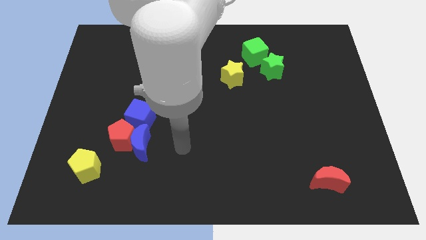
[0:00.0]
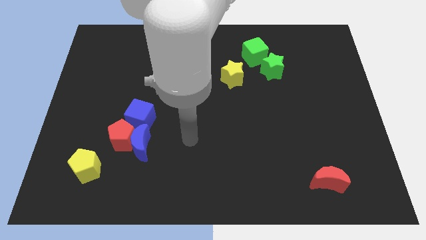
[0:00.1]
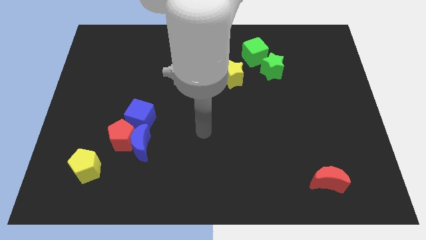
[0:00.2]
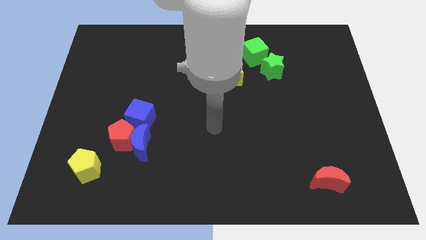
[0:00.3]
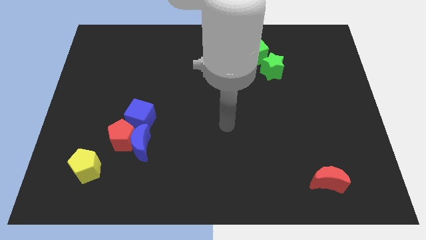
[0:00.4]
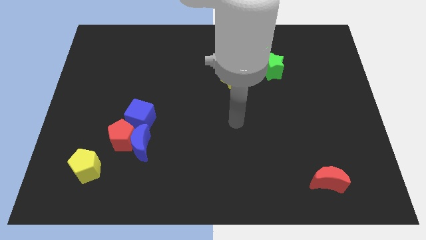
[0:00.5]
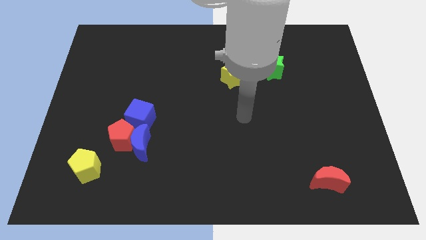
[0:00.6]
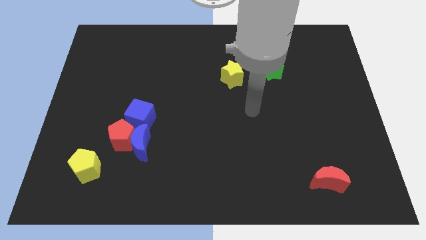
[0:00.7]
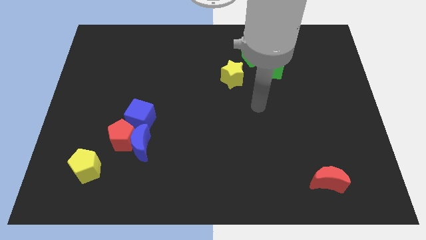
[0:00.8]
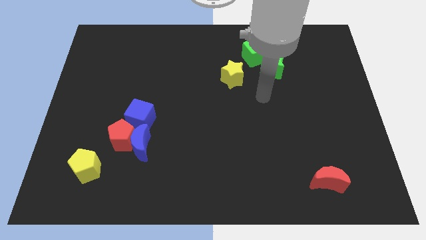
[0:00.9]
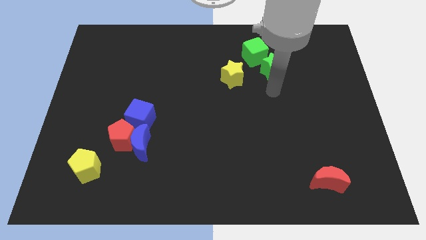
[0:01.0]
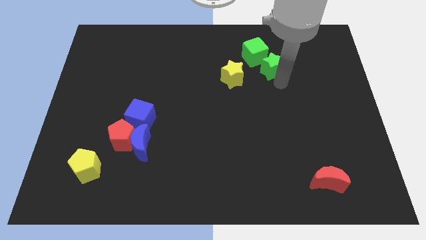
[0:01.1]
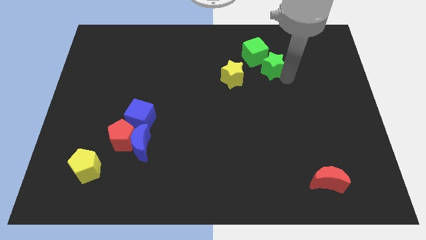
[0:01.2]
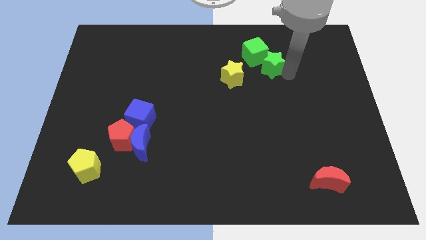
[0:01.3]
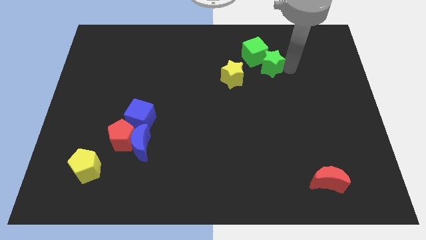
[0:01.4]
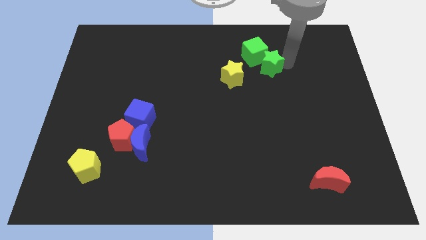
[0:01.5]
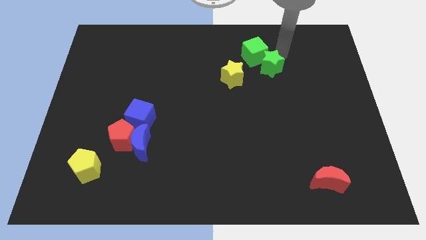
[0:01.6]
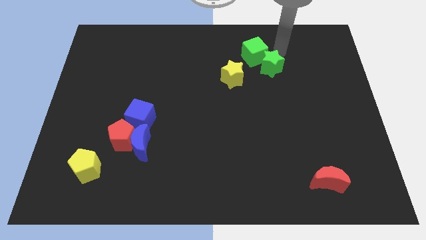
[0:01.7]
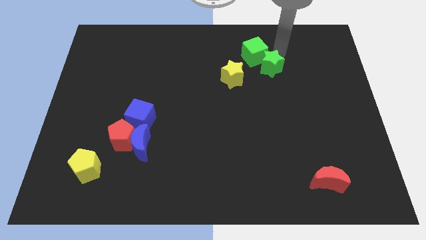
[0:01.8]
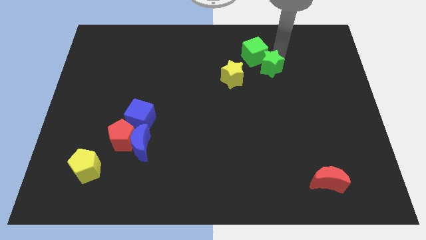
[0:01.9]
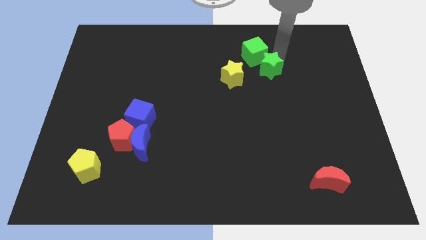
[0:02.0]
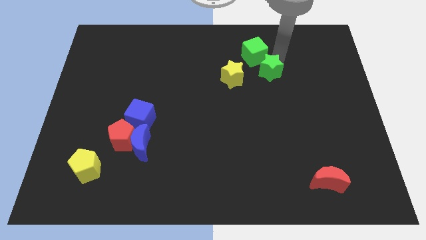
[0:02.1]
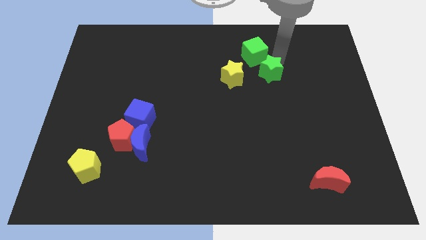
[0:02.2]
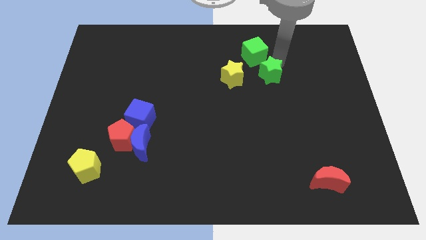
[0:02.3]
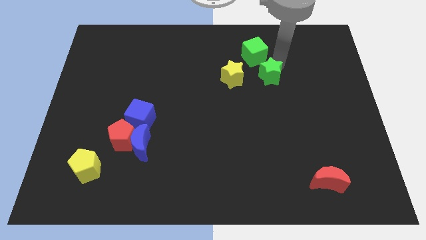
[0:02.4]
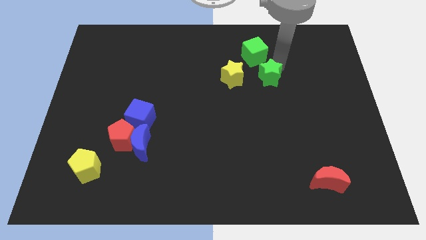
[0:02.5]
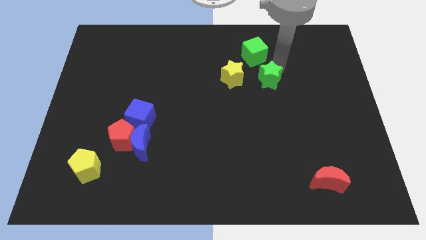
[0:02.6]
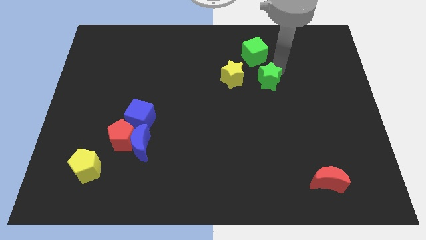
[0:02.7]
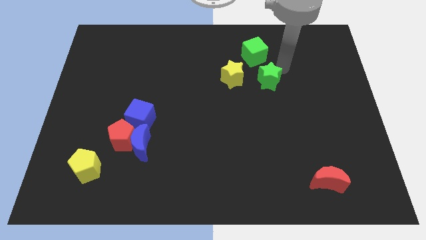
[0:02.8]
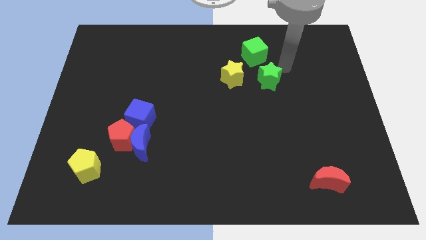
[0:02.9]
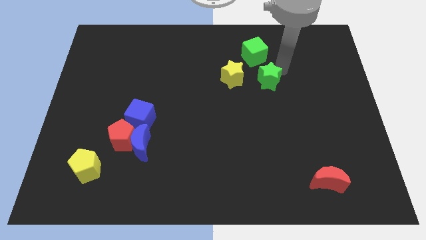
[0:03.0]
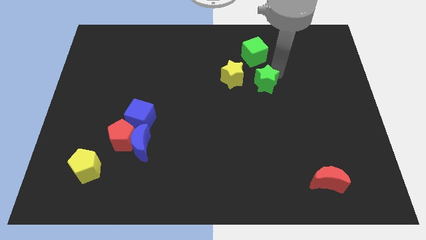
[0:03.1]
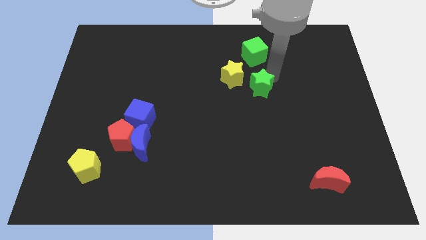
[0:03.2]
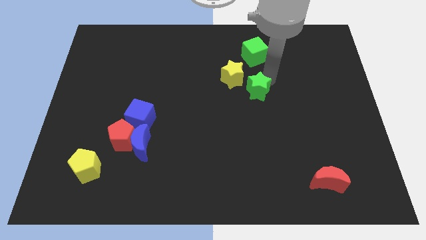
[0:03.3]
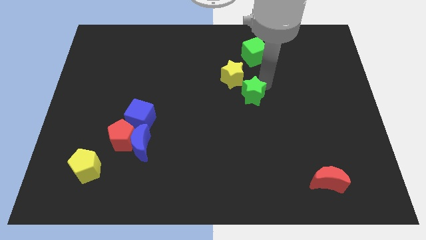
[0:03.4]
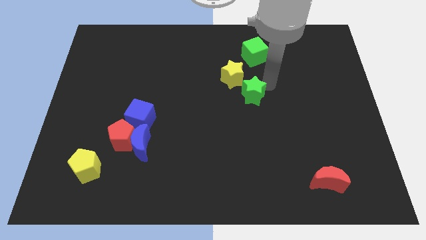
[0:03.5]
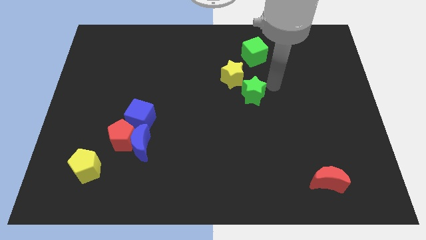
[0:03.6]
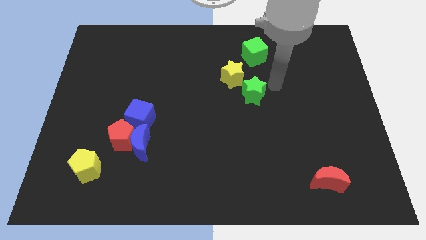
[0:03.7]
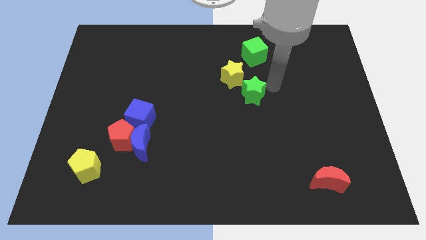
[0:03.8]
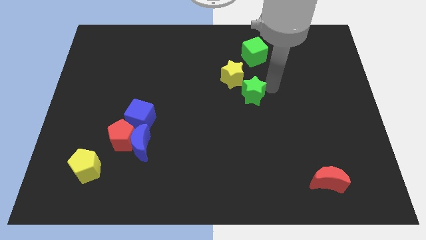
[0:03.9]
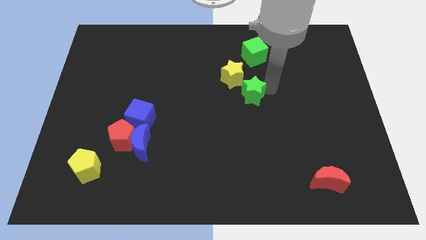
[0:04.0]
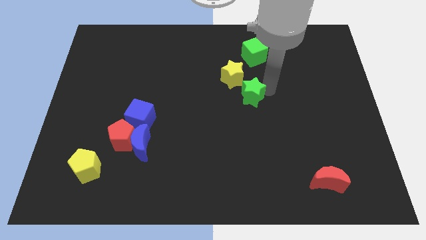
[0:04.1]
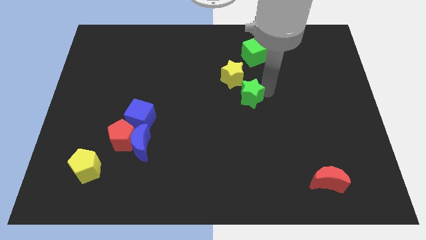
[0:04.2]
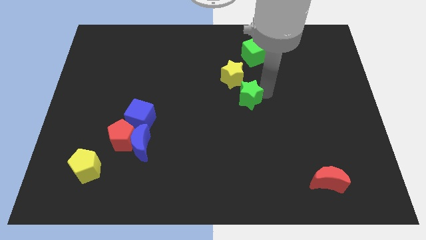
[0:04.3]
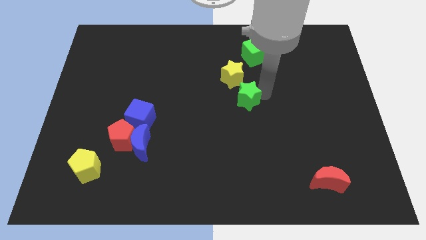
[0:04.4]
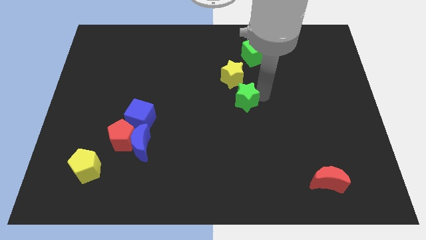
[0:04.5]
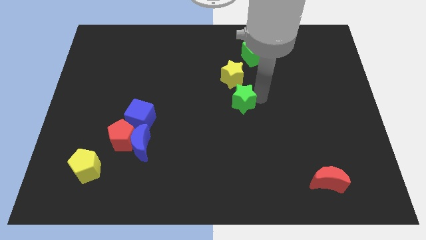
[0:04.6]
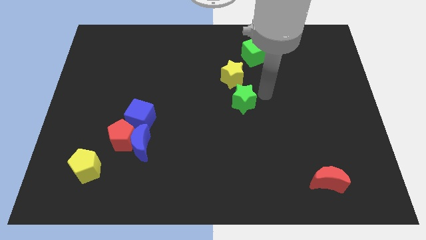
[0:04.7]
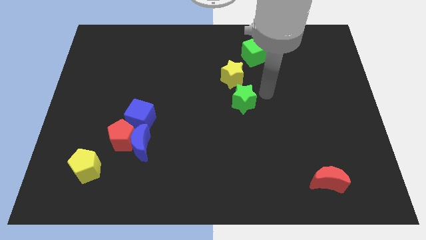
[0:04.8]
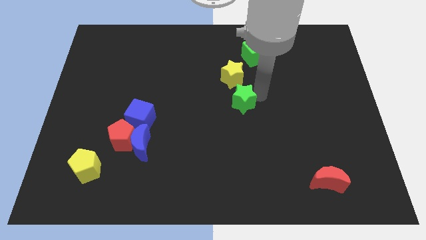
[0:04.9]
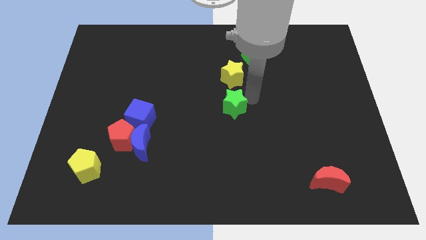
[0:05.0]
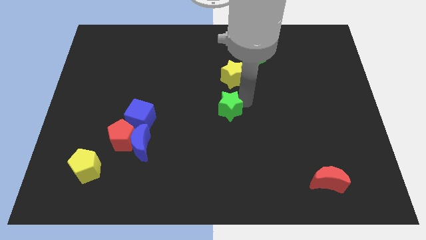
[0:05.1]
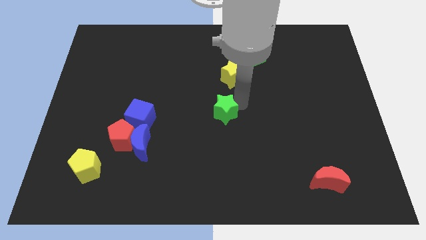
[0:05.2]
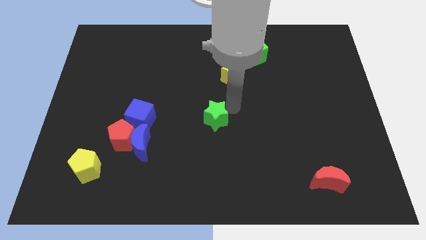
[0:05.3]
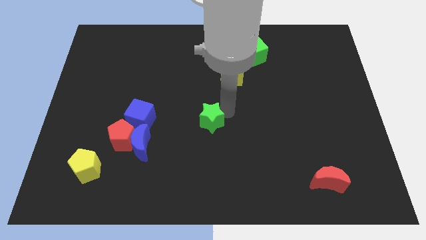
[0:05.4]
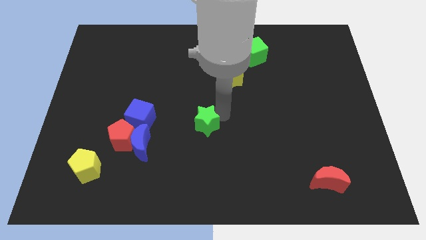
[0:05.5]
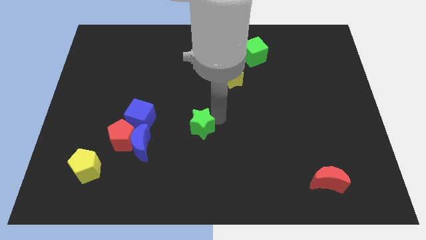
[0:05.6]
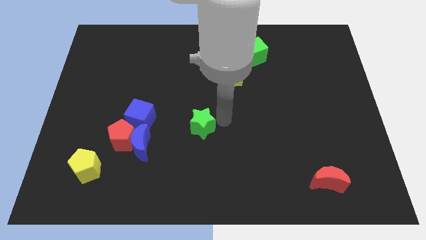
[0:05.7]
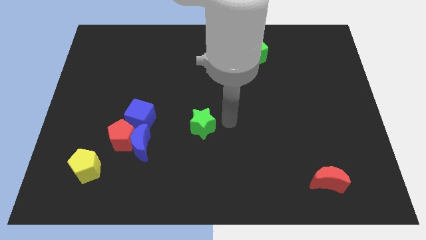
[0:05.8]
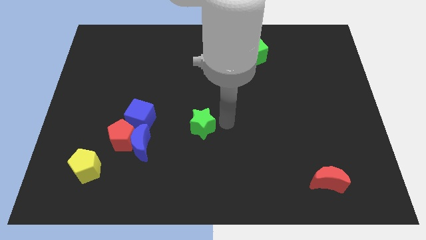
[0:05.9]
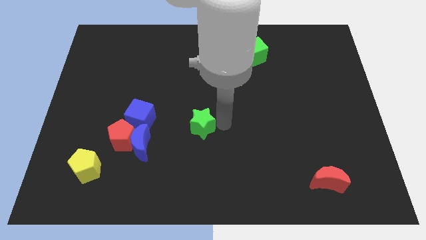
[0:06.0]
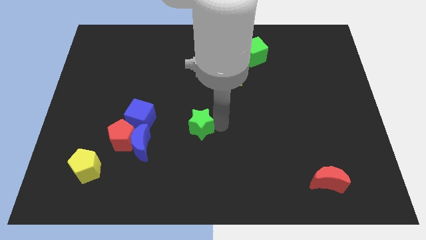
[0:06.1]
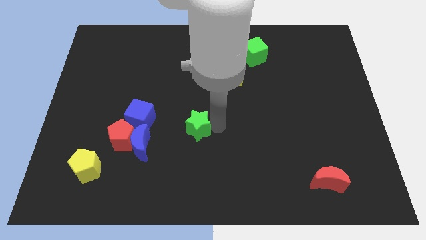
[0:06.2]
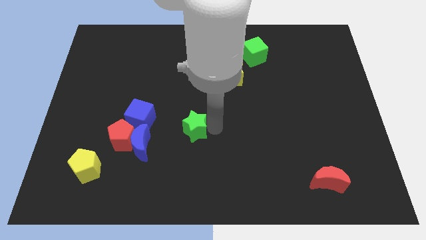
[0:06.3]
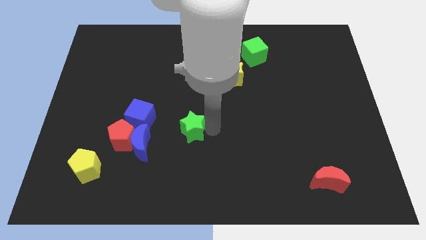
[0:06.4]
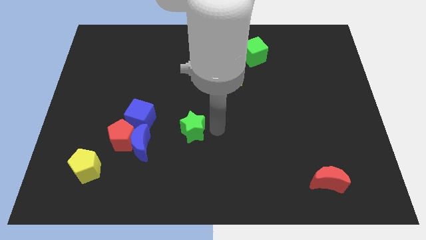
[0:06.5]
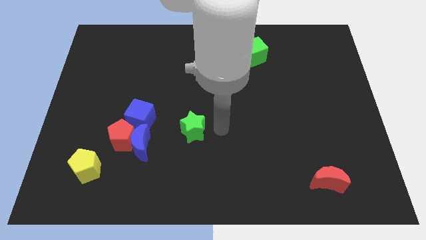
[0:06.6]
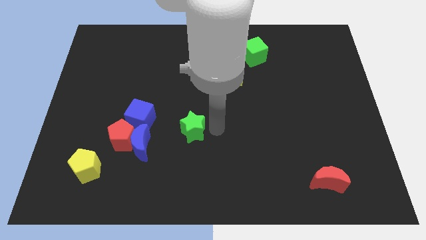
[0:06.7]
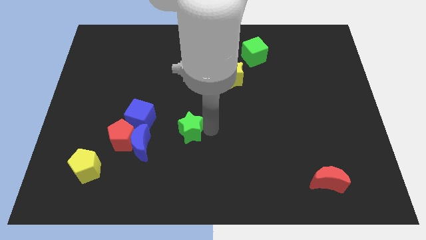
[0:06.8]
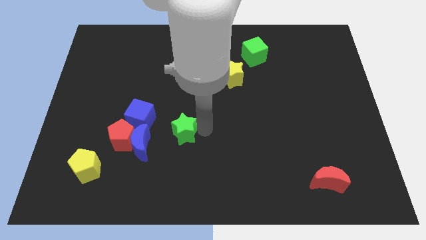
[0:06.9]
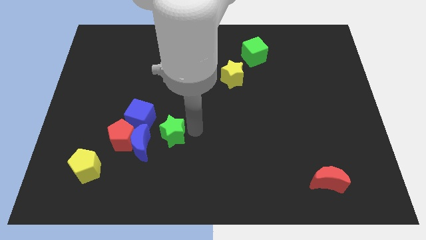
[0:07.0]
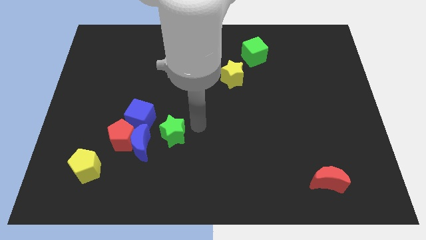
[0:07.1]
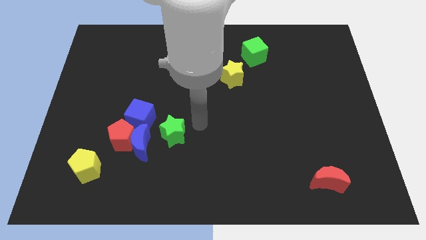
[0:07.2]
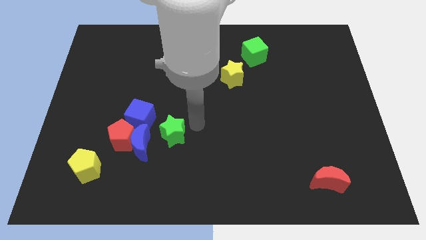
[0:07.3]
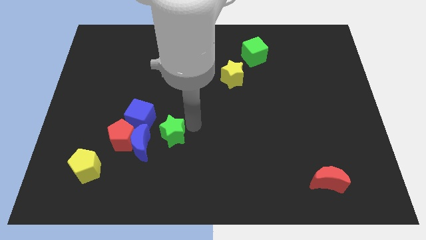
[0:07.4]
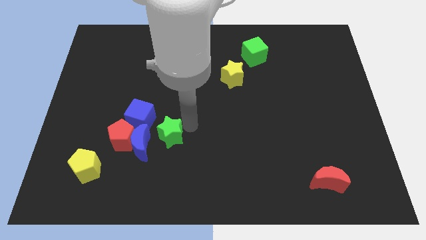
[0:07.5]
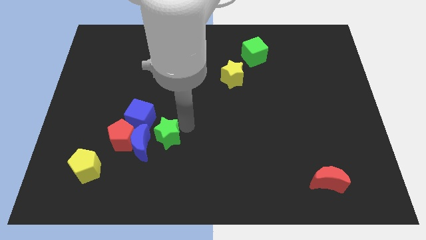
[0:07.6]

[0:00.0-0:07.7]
move the green star next to the blue moon
